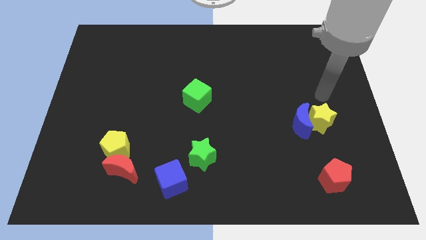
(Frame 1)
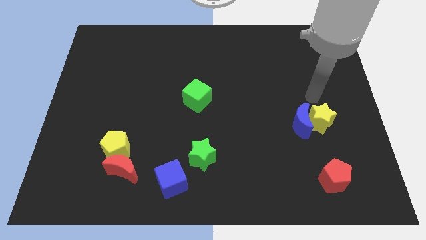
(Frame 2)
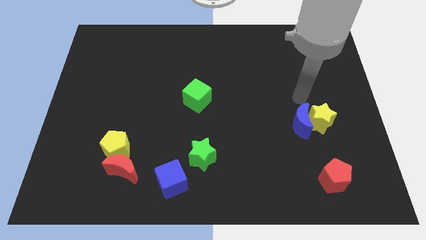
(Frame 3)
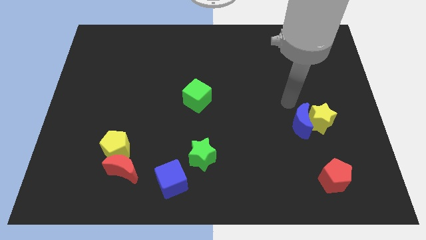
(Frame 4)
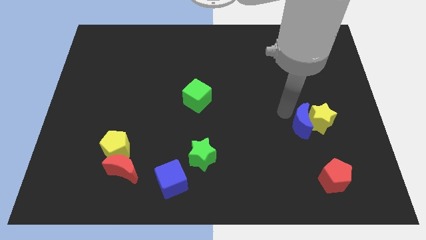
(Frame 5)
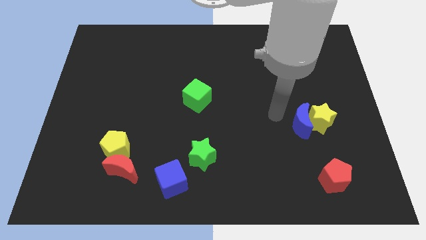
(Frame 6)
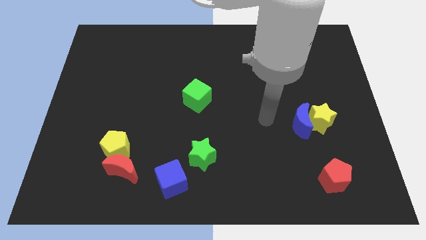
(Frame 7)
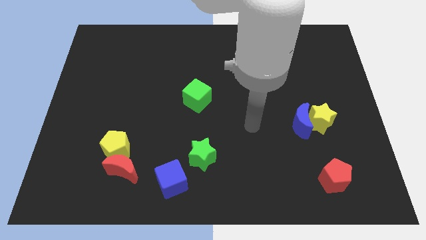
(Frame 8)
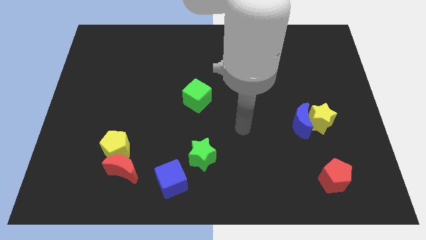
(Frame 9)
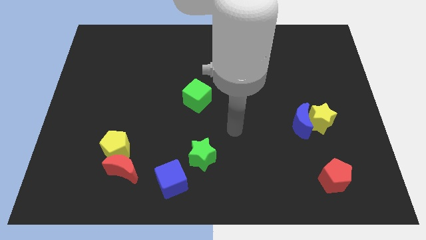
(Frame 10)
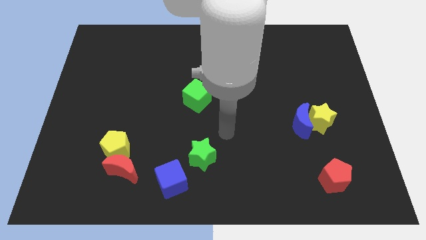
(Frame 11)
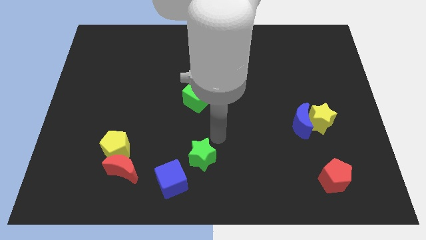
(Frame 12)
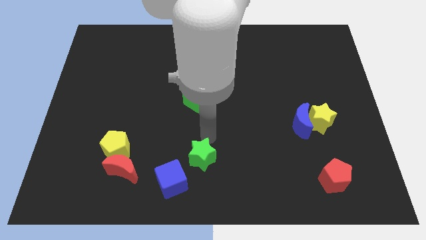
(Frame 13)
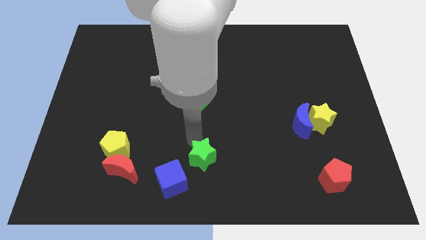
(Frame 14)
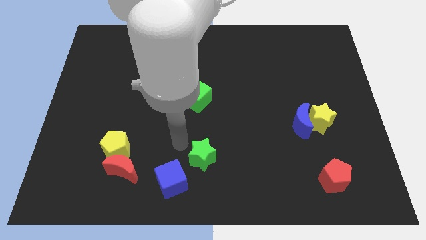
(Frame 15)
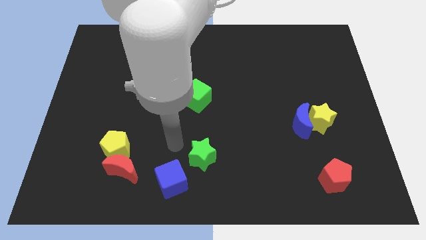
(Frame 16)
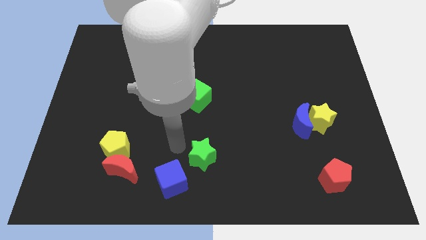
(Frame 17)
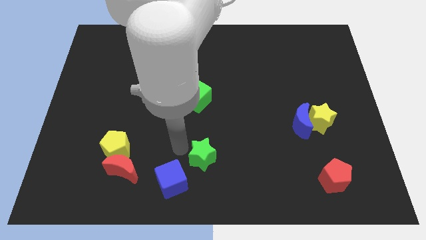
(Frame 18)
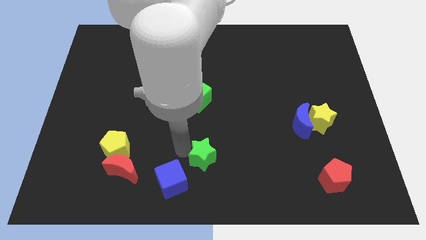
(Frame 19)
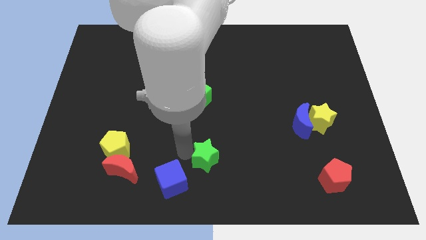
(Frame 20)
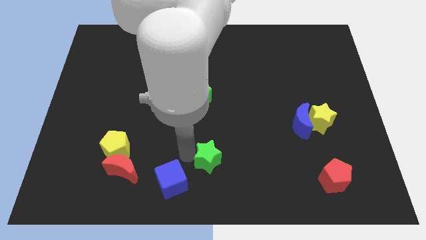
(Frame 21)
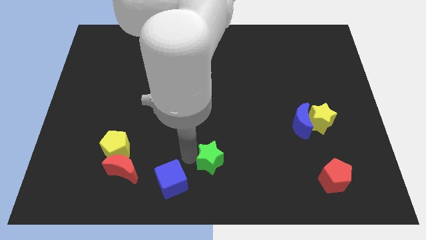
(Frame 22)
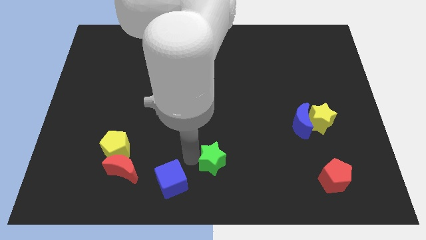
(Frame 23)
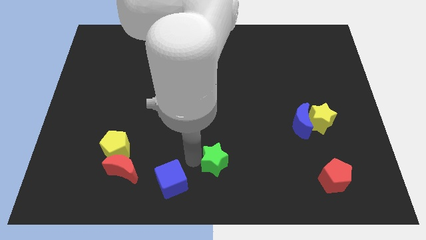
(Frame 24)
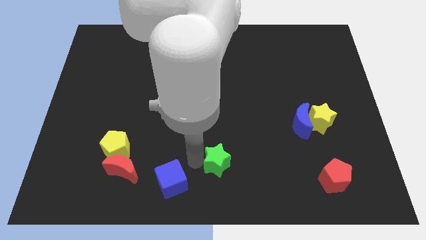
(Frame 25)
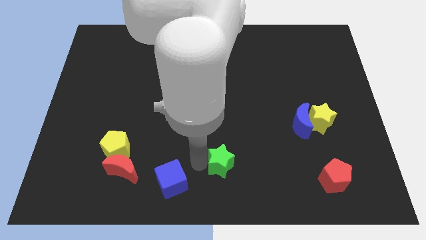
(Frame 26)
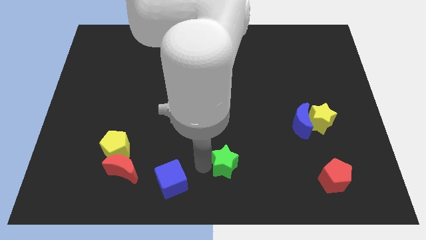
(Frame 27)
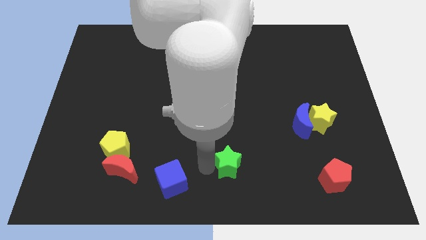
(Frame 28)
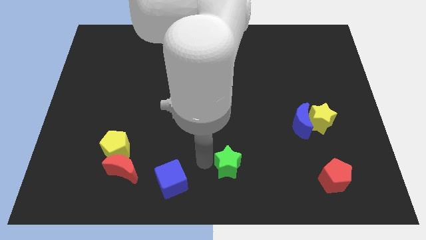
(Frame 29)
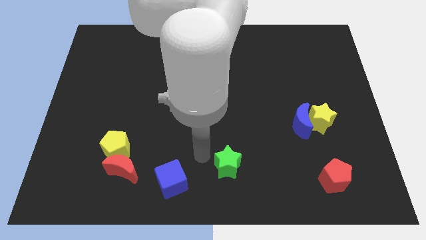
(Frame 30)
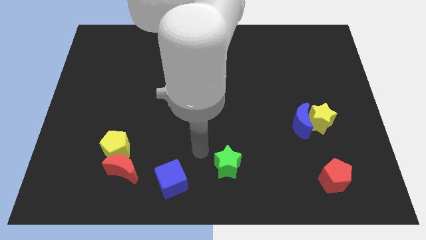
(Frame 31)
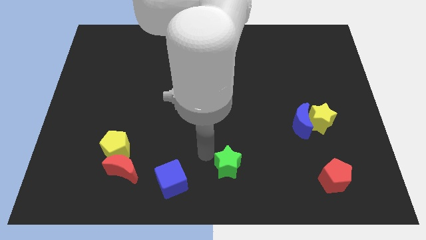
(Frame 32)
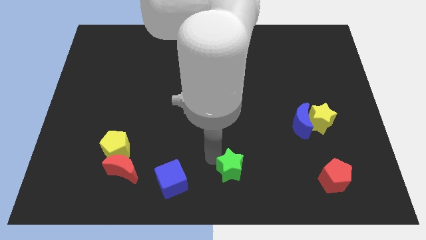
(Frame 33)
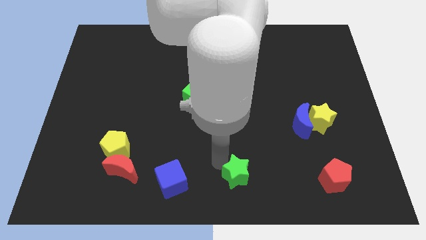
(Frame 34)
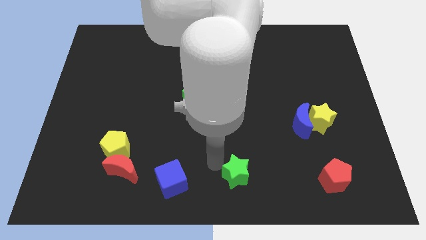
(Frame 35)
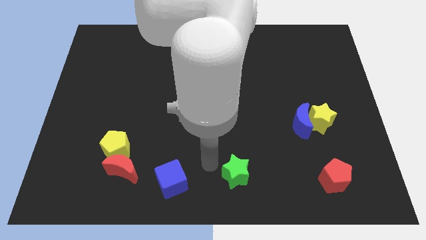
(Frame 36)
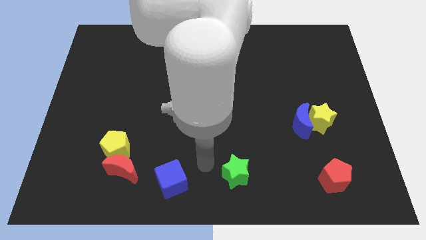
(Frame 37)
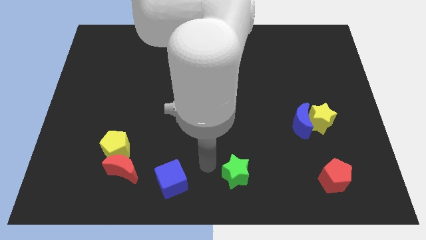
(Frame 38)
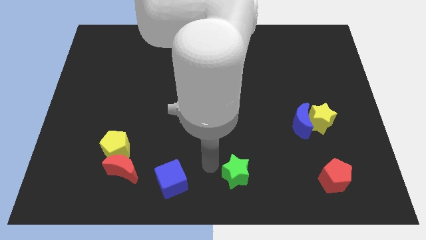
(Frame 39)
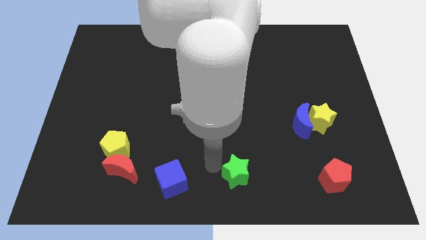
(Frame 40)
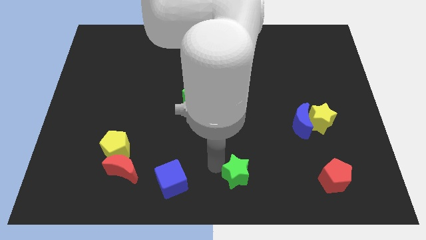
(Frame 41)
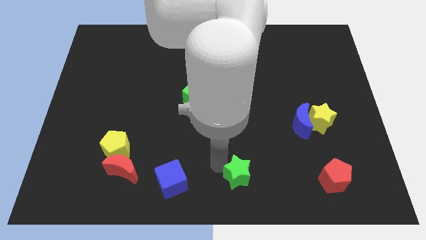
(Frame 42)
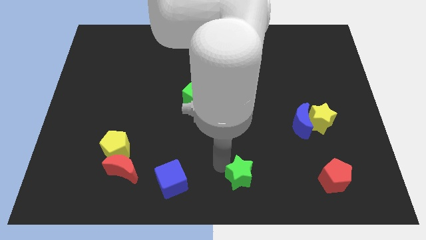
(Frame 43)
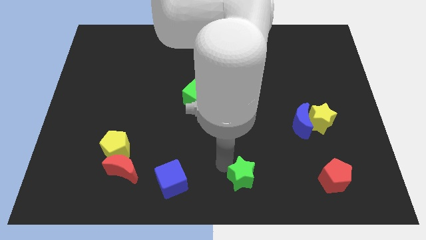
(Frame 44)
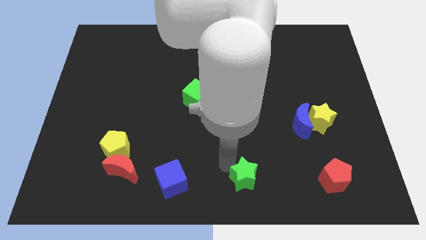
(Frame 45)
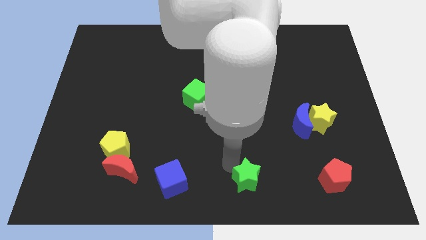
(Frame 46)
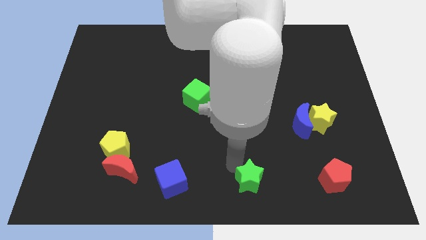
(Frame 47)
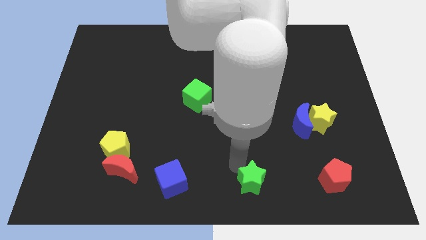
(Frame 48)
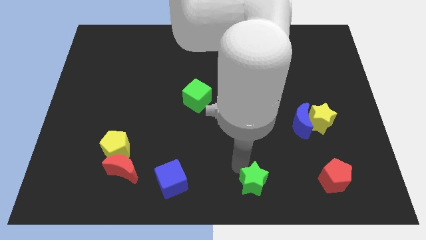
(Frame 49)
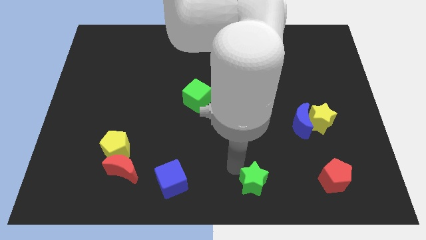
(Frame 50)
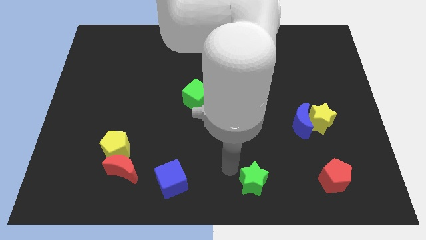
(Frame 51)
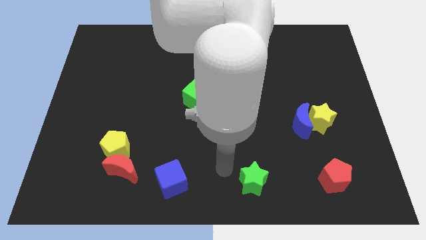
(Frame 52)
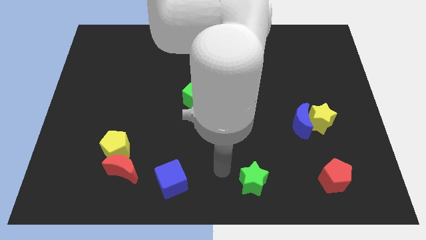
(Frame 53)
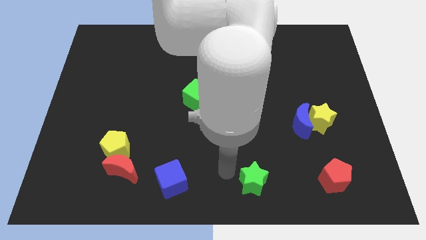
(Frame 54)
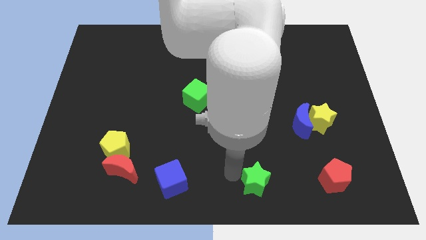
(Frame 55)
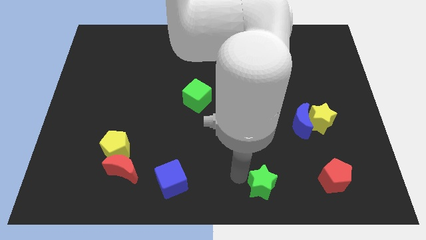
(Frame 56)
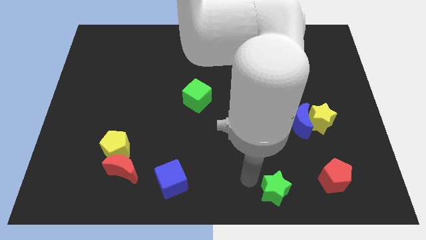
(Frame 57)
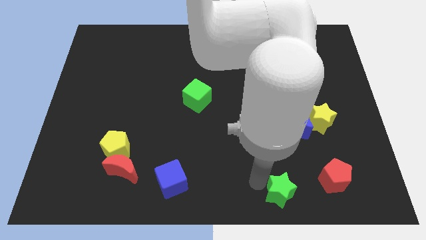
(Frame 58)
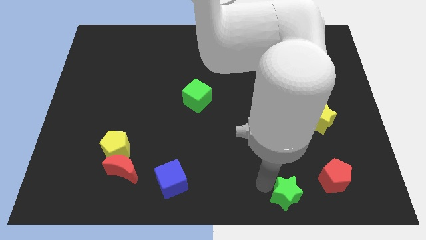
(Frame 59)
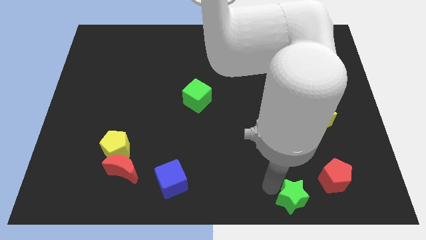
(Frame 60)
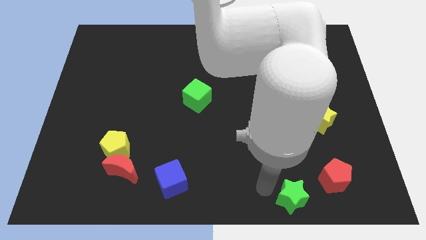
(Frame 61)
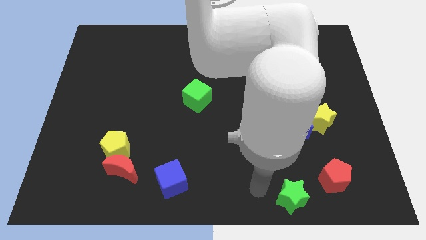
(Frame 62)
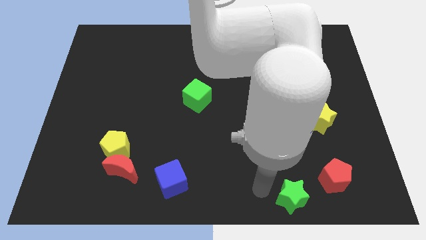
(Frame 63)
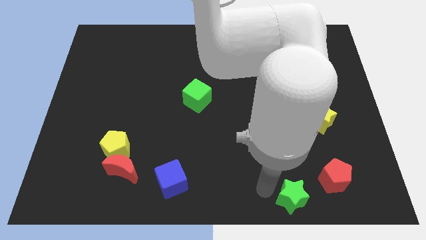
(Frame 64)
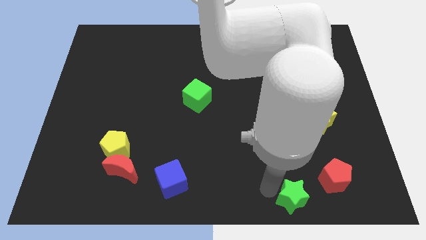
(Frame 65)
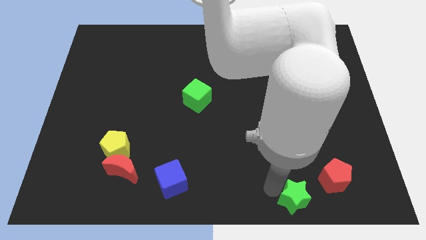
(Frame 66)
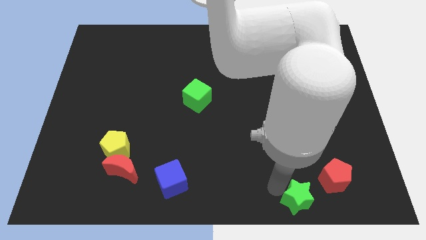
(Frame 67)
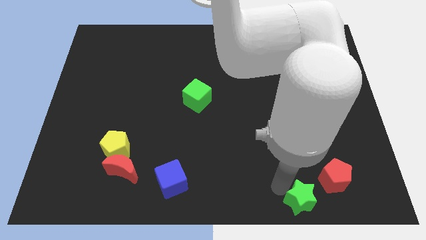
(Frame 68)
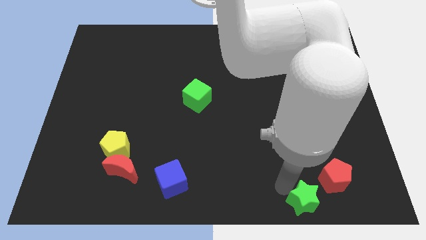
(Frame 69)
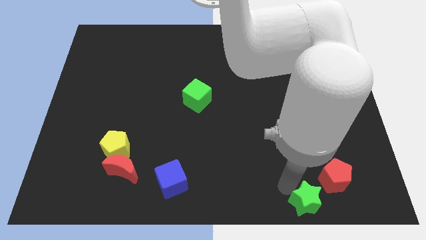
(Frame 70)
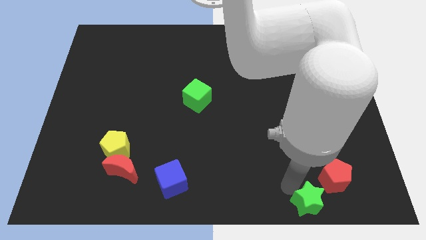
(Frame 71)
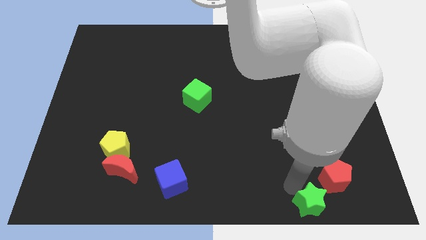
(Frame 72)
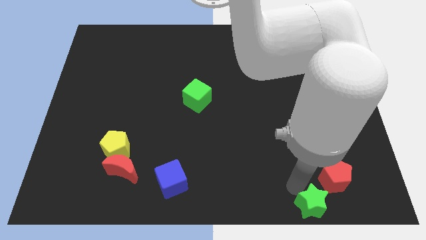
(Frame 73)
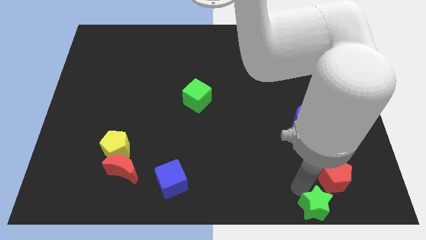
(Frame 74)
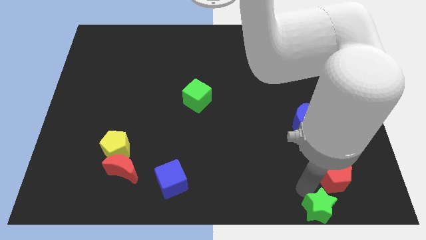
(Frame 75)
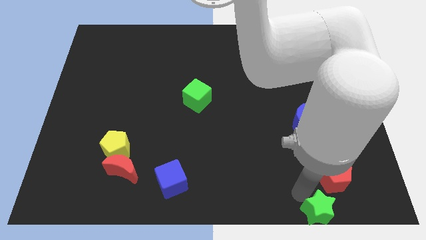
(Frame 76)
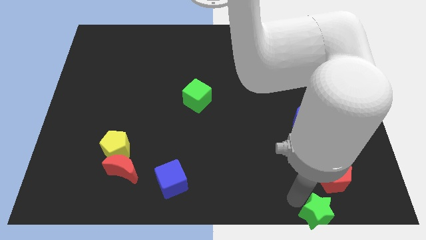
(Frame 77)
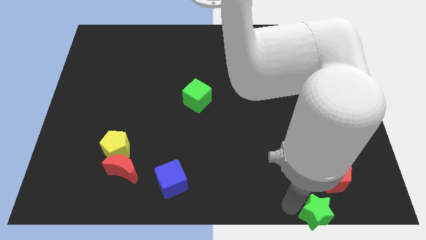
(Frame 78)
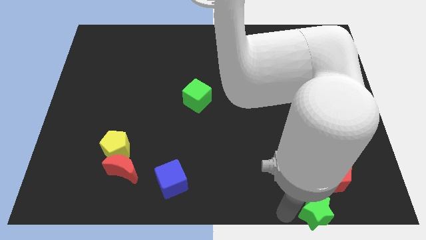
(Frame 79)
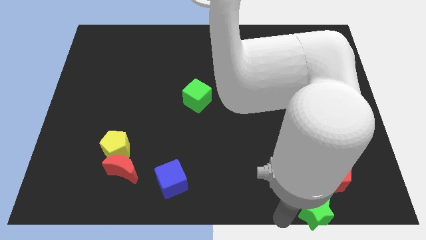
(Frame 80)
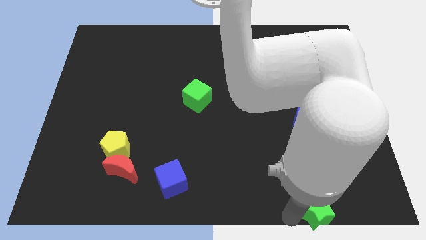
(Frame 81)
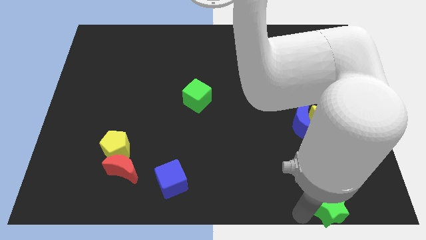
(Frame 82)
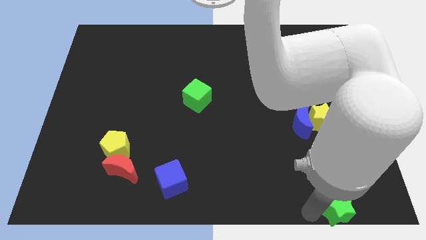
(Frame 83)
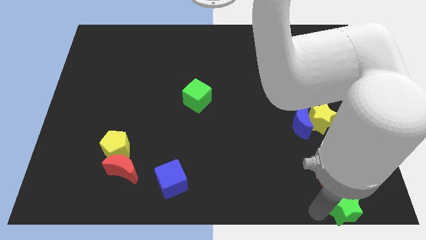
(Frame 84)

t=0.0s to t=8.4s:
slide the green star to the bottom right of the board
